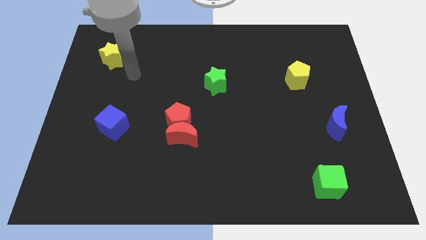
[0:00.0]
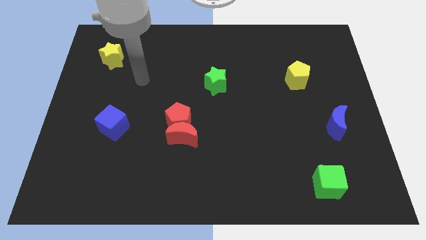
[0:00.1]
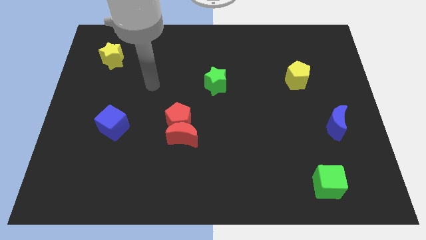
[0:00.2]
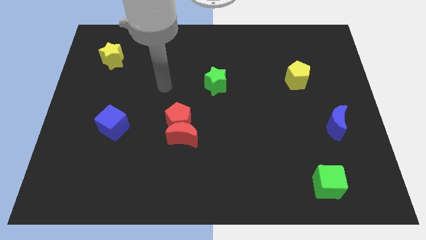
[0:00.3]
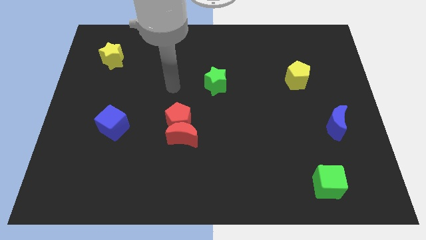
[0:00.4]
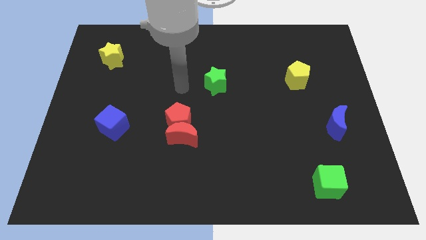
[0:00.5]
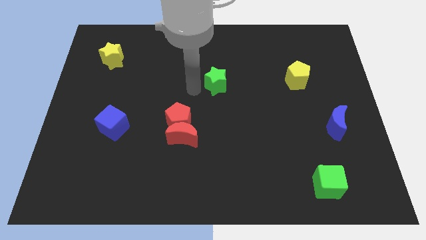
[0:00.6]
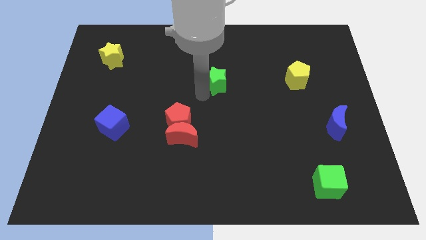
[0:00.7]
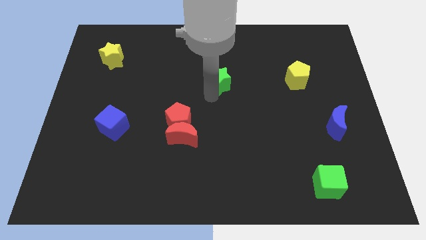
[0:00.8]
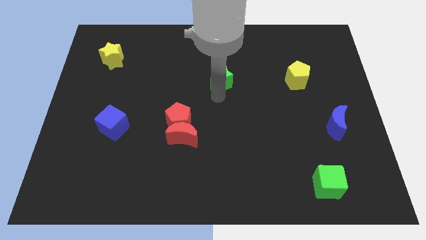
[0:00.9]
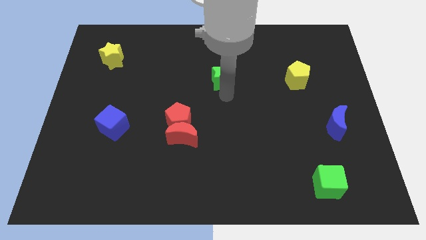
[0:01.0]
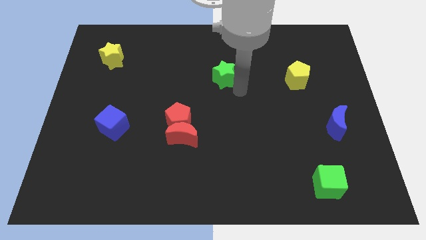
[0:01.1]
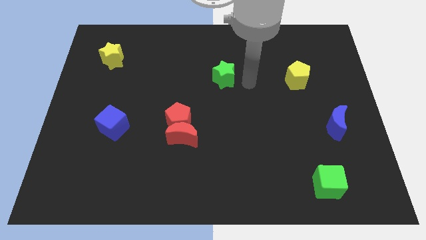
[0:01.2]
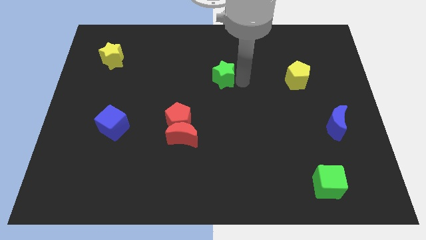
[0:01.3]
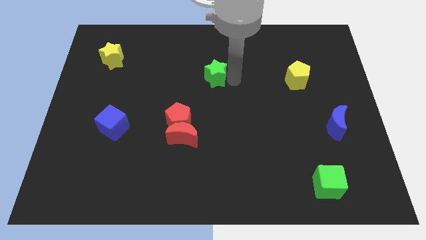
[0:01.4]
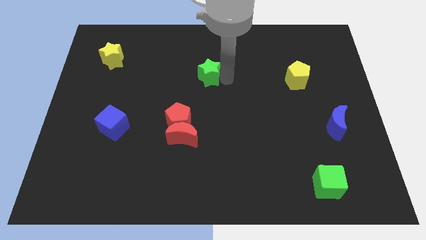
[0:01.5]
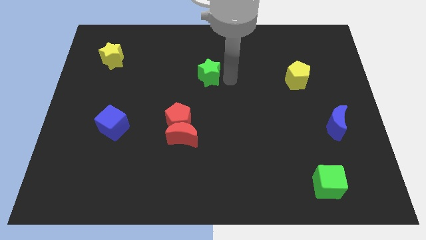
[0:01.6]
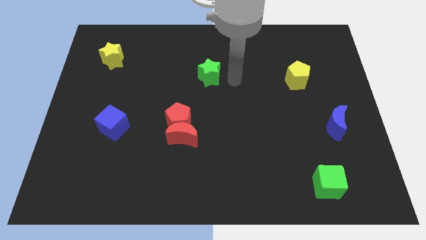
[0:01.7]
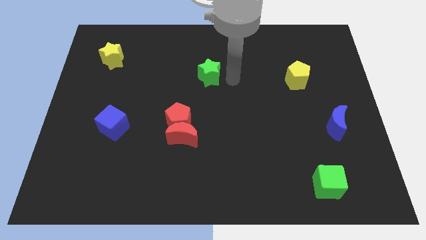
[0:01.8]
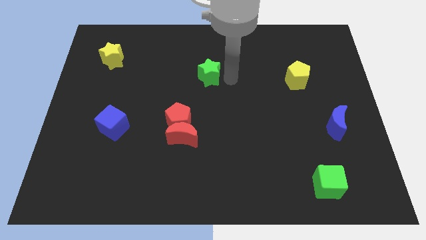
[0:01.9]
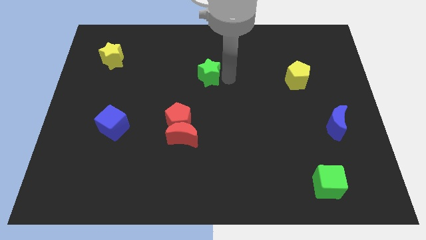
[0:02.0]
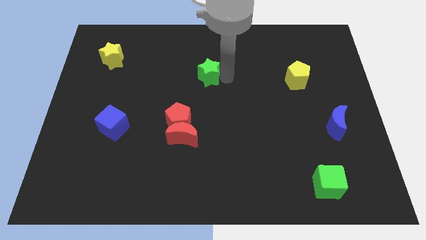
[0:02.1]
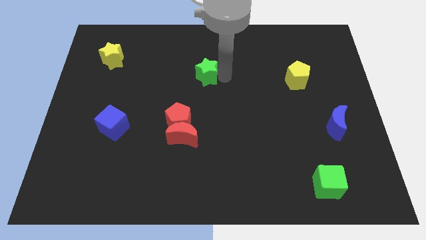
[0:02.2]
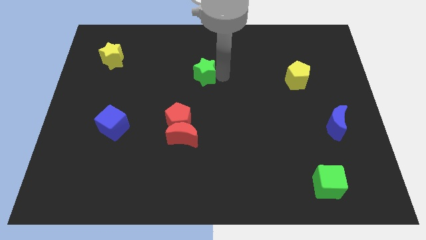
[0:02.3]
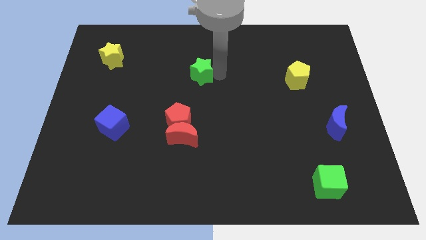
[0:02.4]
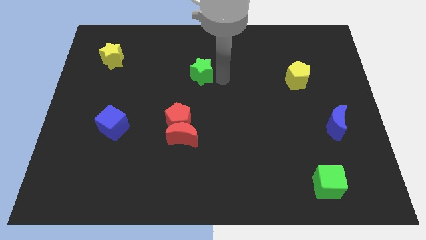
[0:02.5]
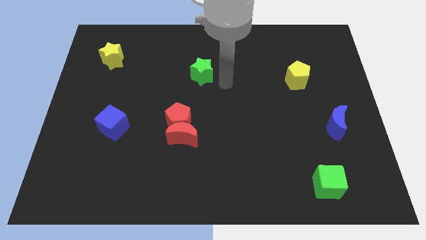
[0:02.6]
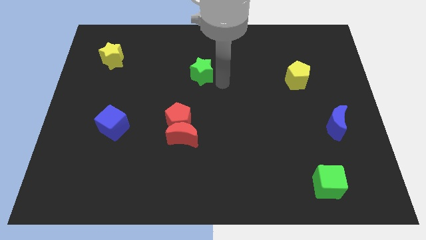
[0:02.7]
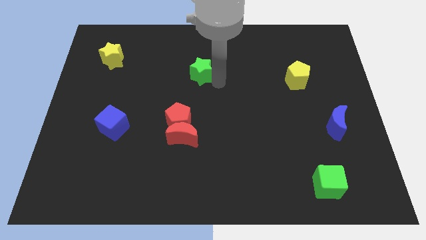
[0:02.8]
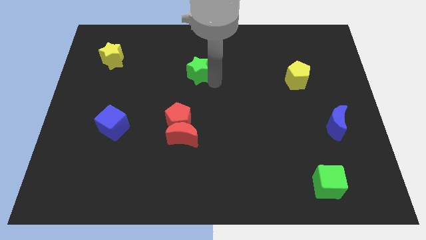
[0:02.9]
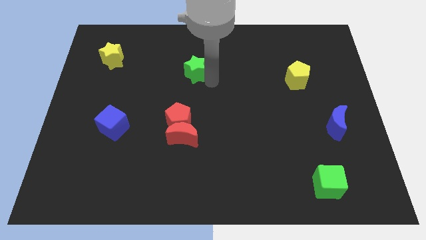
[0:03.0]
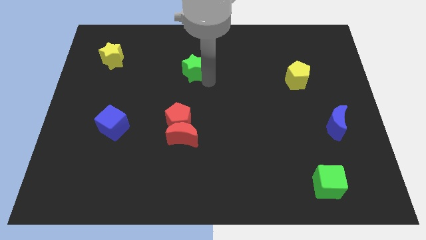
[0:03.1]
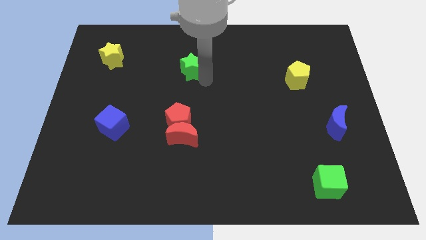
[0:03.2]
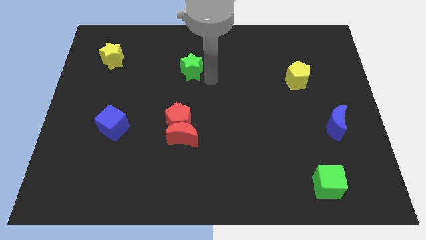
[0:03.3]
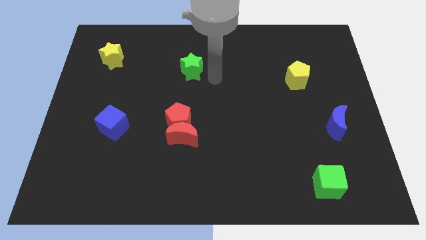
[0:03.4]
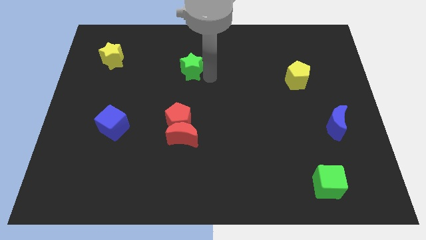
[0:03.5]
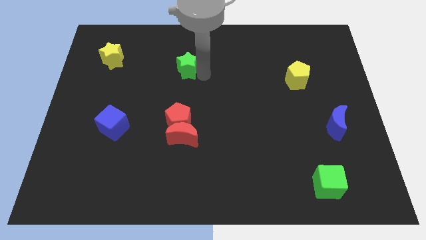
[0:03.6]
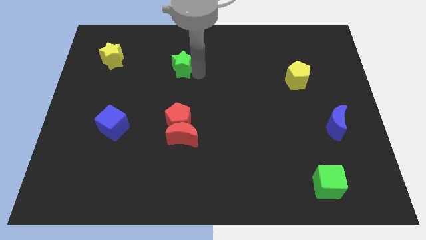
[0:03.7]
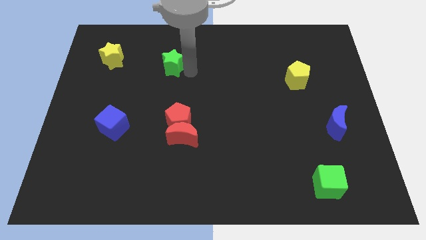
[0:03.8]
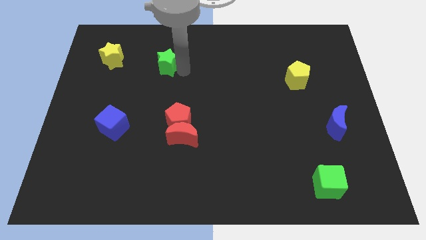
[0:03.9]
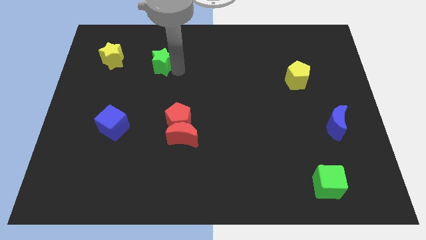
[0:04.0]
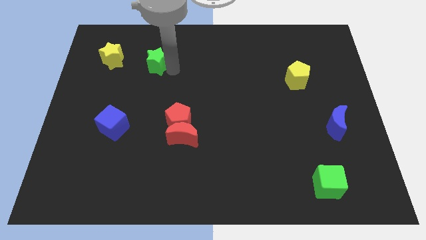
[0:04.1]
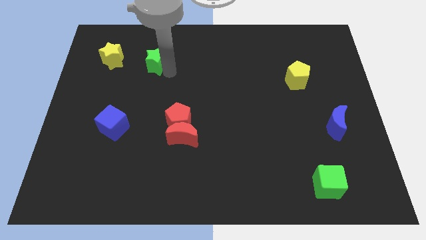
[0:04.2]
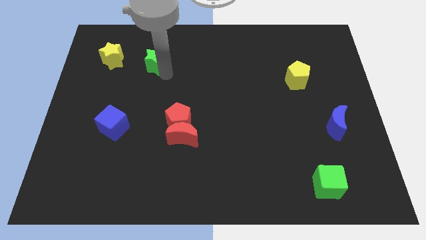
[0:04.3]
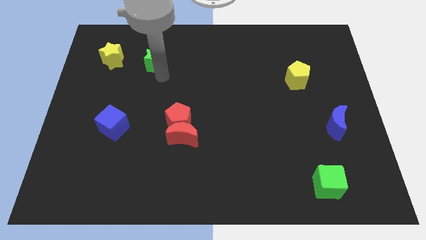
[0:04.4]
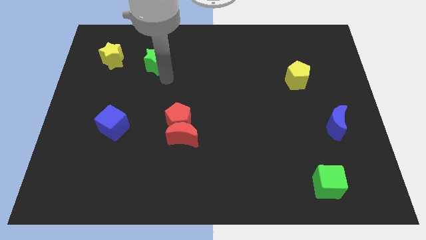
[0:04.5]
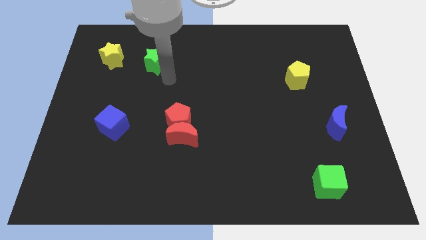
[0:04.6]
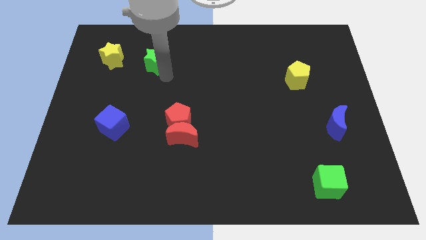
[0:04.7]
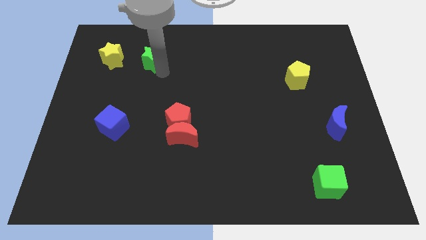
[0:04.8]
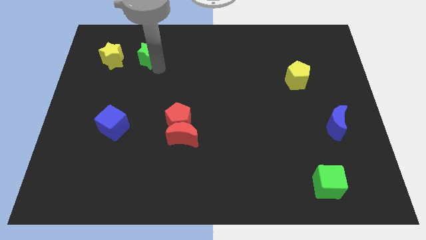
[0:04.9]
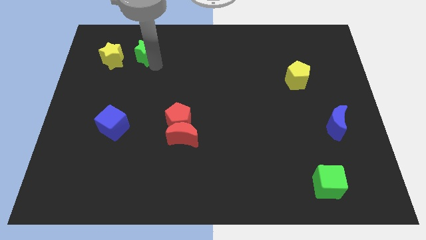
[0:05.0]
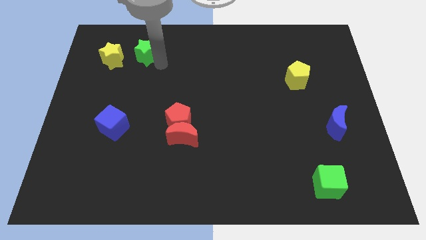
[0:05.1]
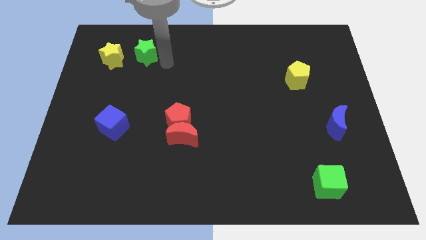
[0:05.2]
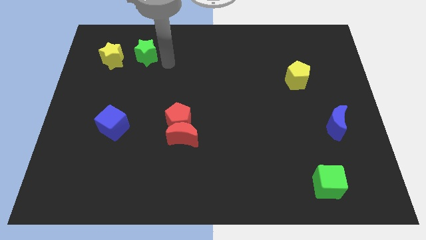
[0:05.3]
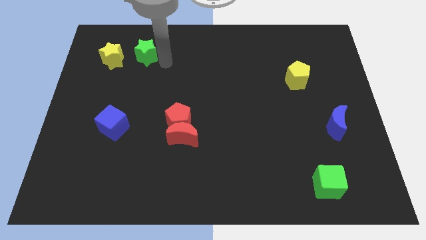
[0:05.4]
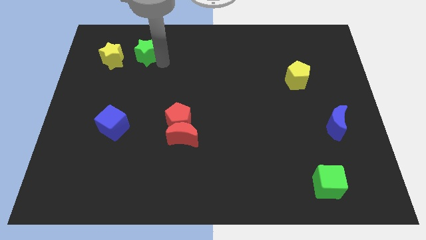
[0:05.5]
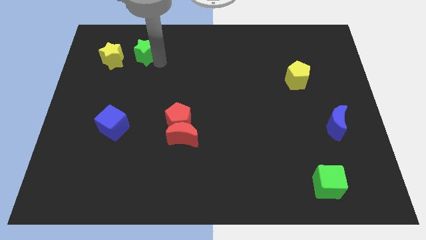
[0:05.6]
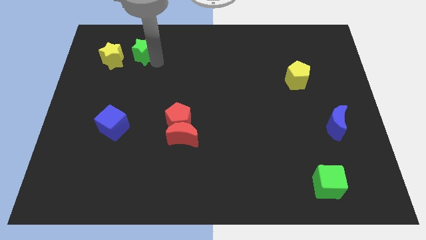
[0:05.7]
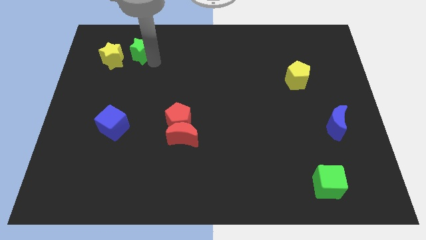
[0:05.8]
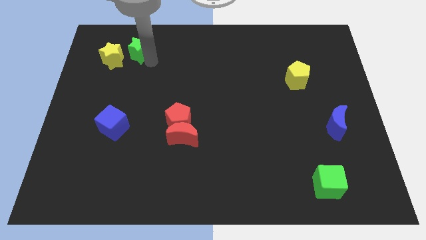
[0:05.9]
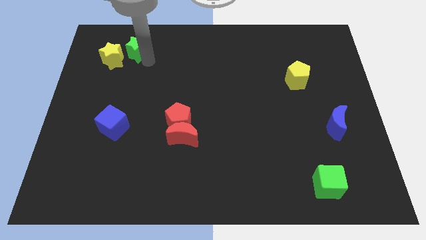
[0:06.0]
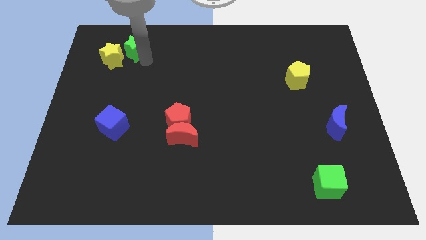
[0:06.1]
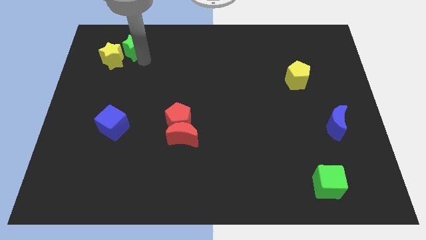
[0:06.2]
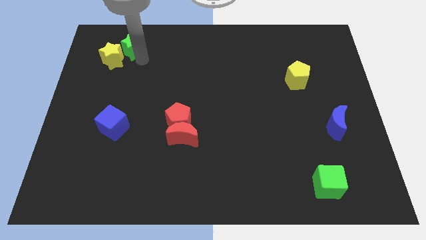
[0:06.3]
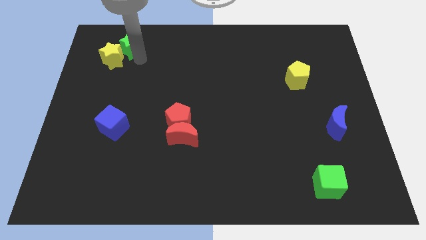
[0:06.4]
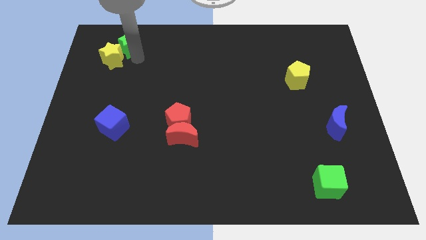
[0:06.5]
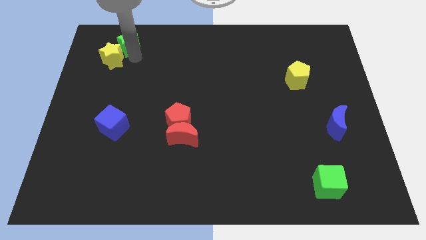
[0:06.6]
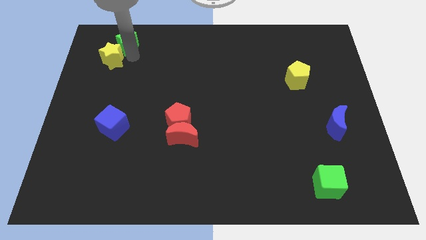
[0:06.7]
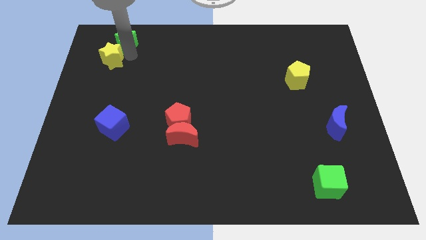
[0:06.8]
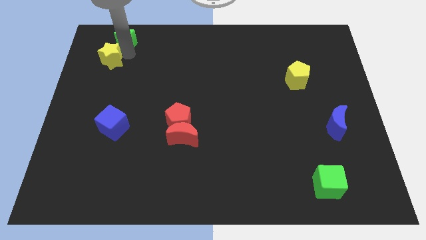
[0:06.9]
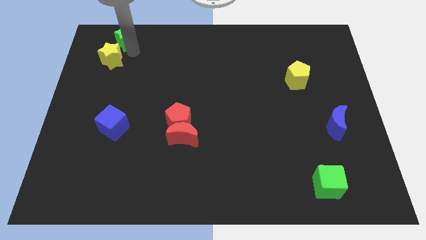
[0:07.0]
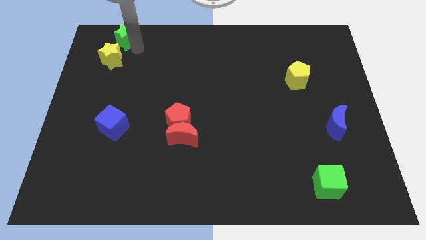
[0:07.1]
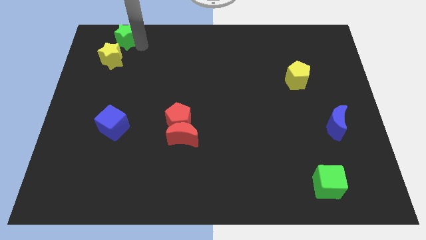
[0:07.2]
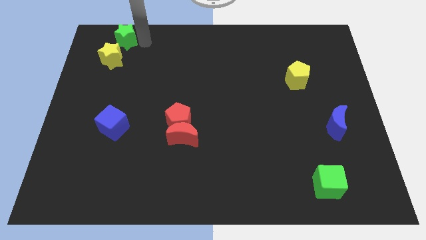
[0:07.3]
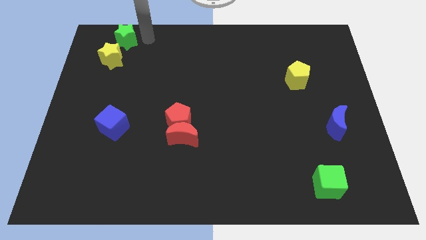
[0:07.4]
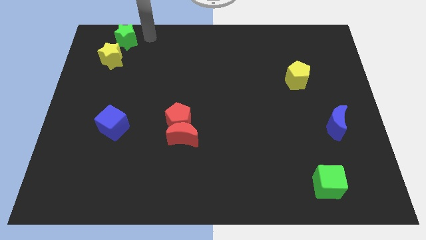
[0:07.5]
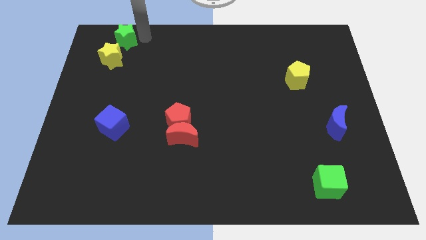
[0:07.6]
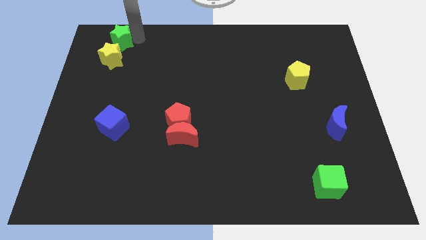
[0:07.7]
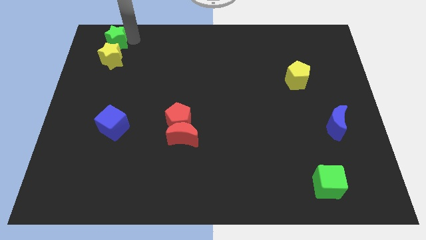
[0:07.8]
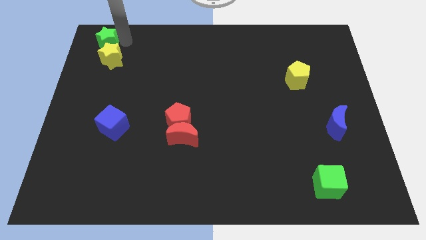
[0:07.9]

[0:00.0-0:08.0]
put the green star to the top left corner
